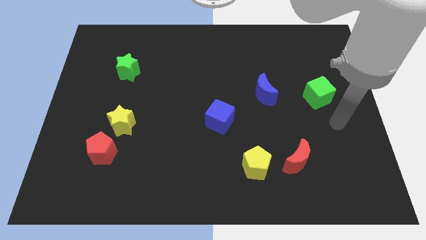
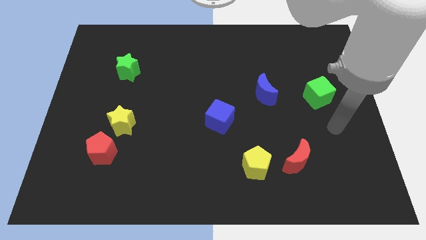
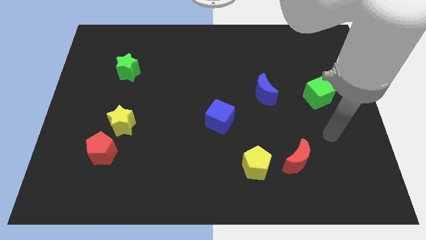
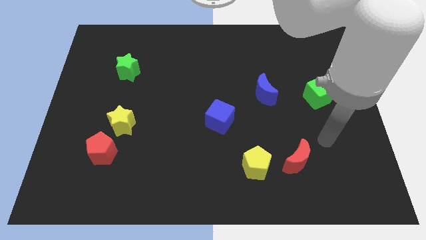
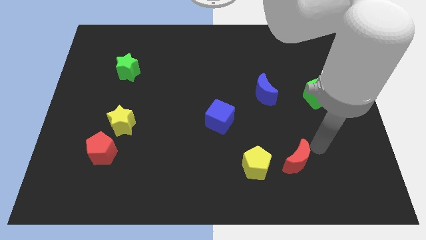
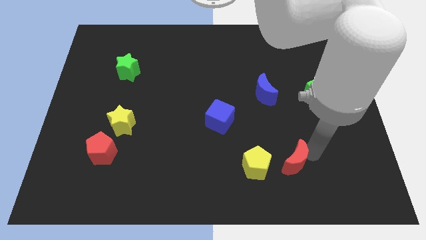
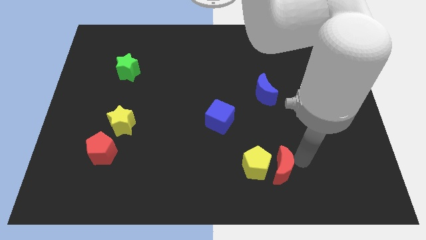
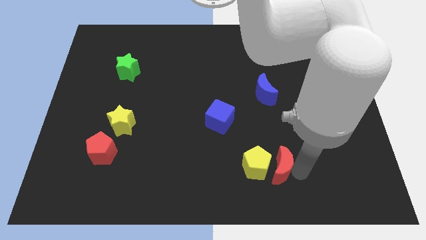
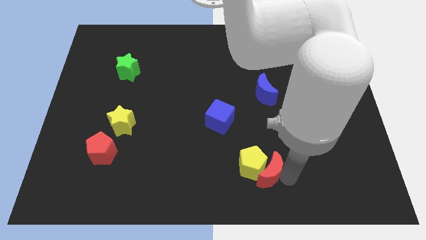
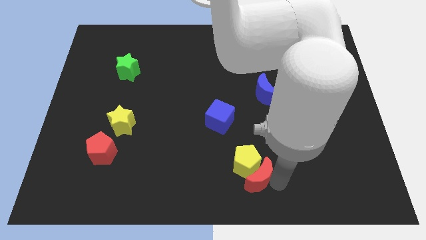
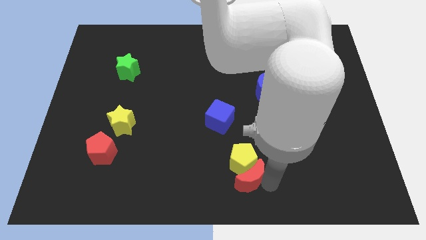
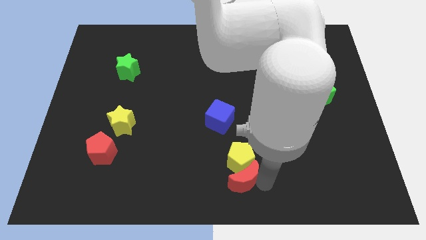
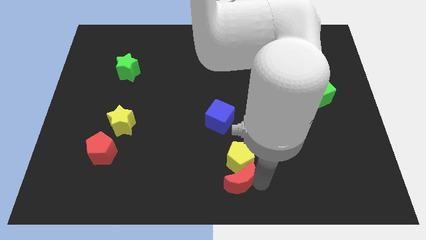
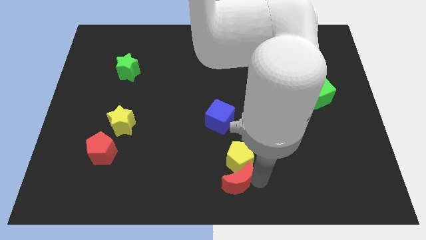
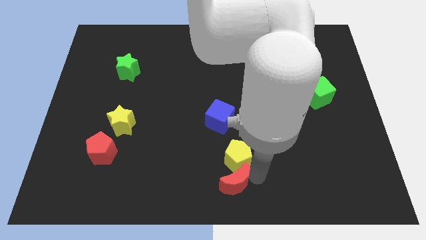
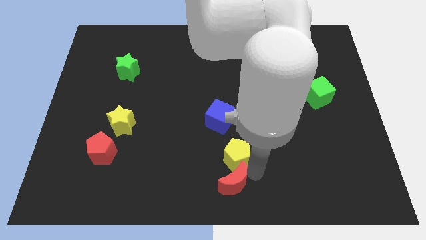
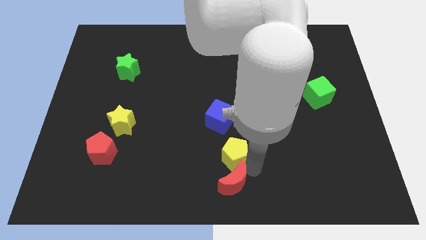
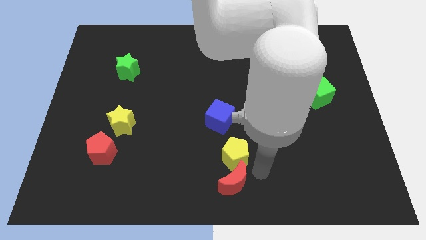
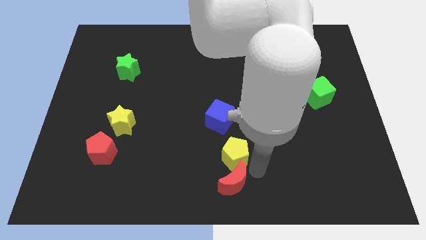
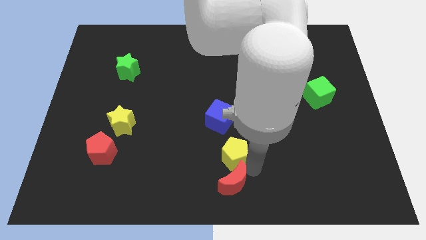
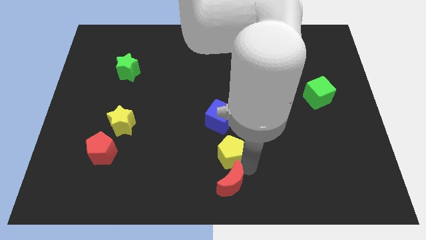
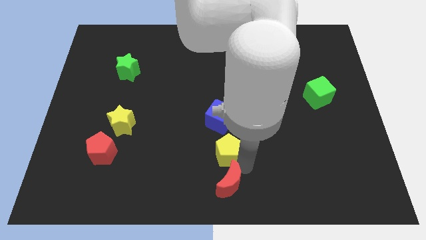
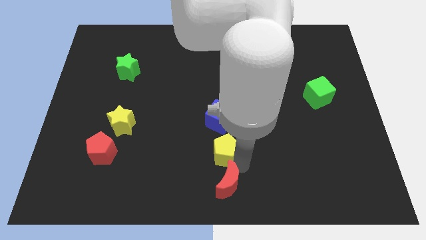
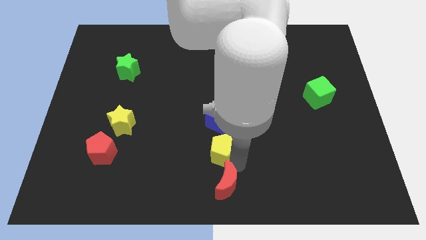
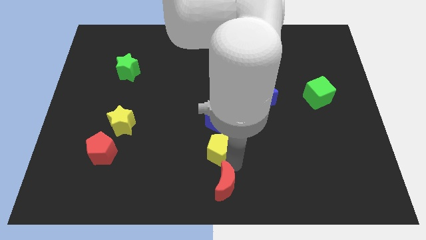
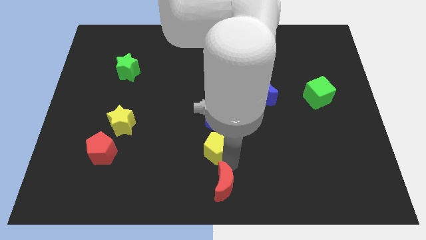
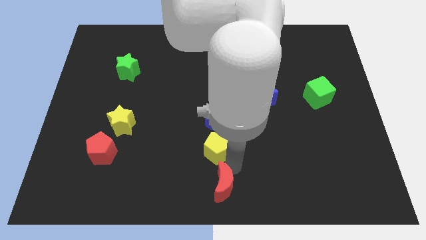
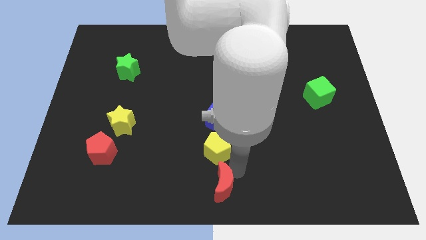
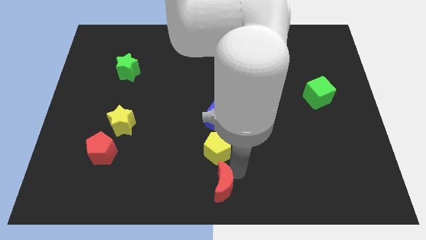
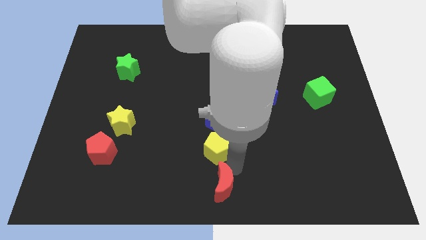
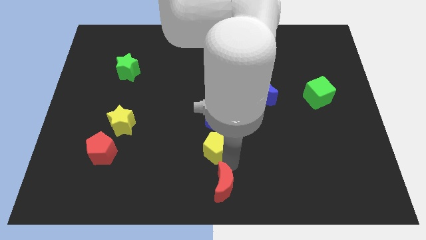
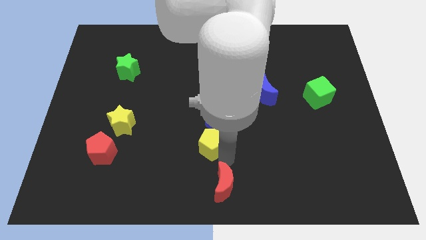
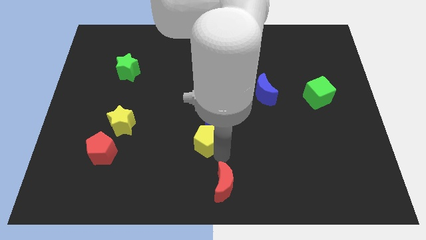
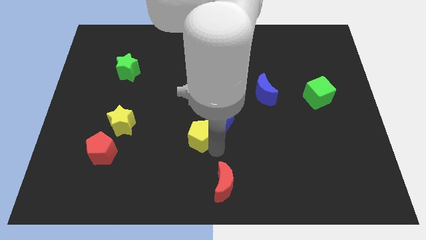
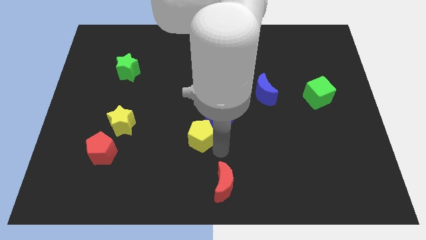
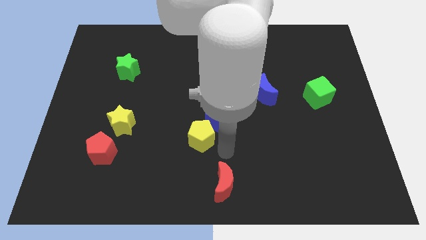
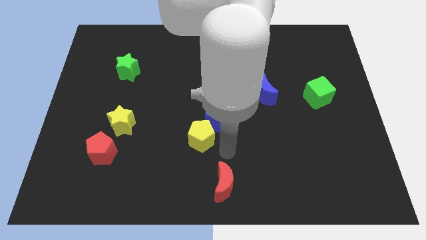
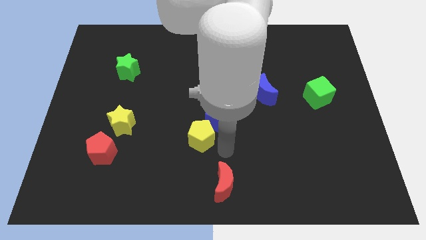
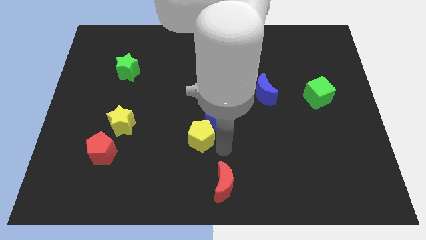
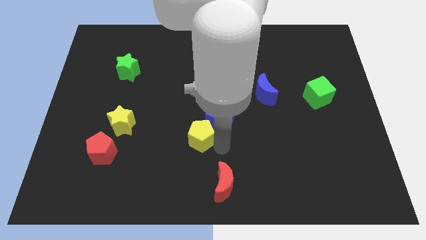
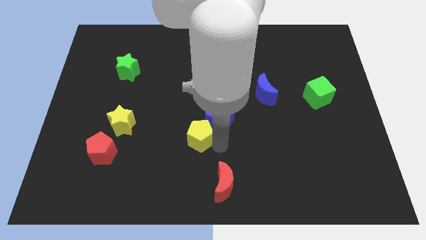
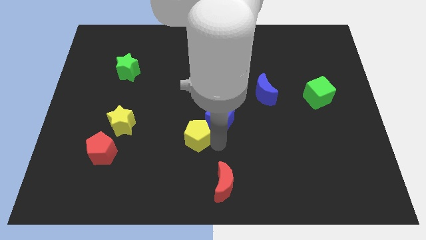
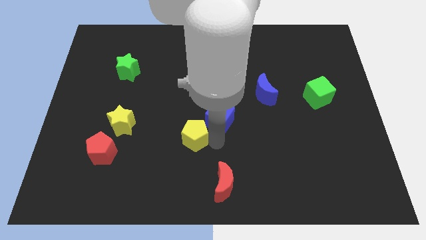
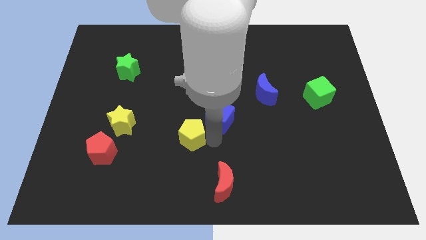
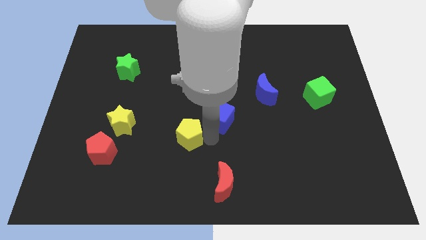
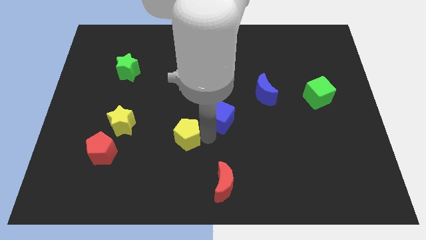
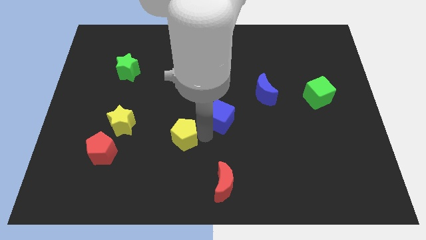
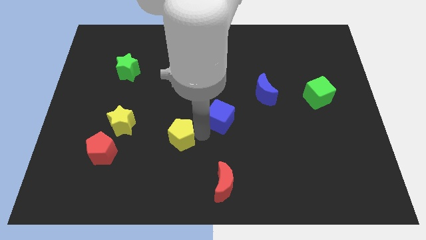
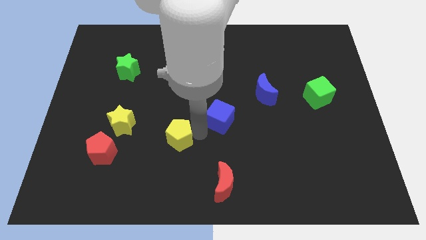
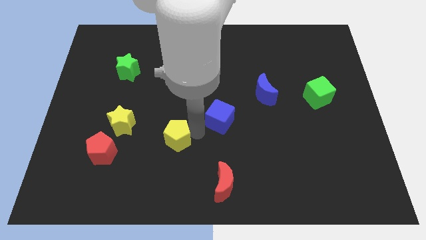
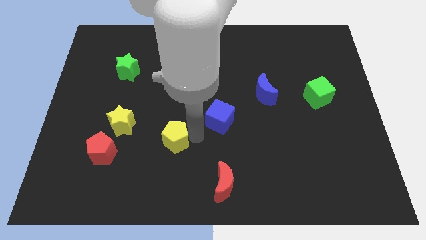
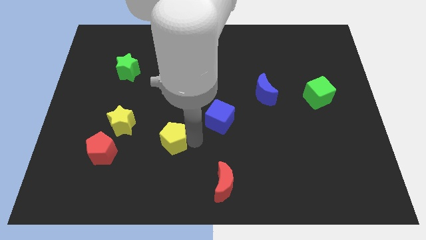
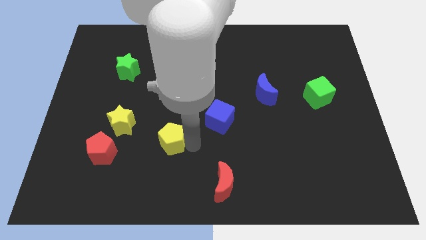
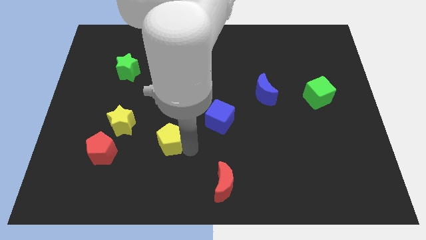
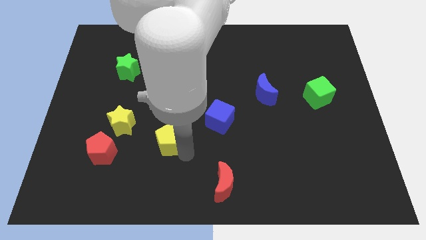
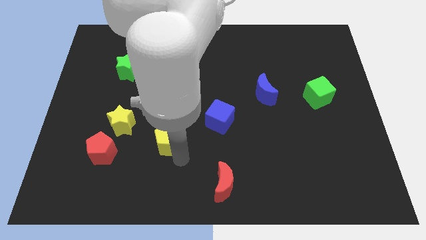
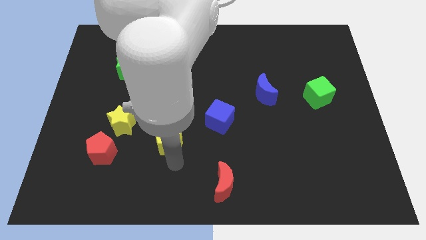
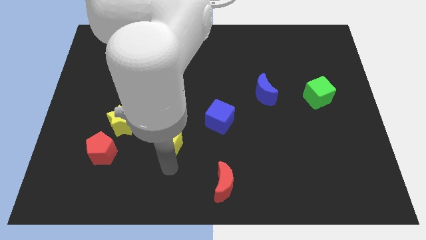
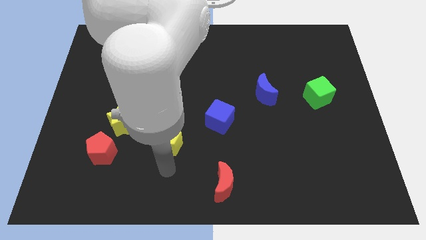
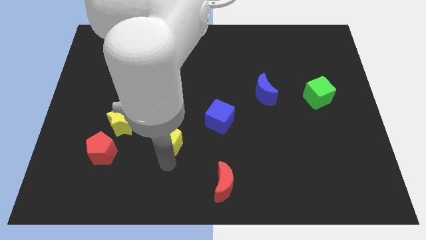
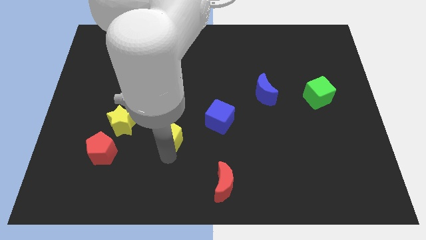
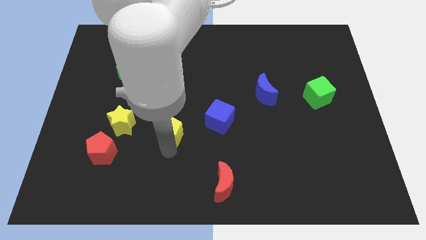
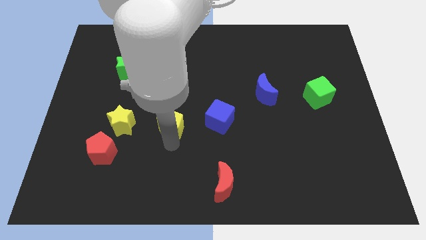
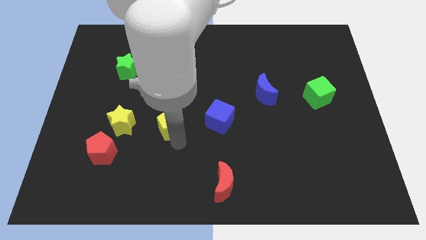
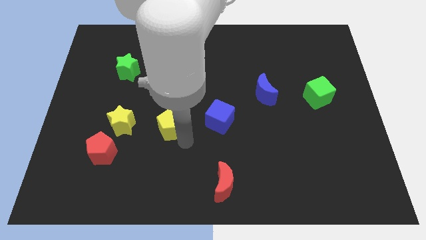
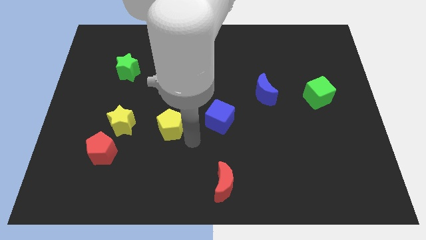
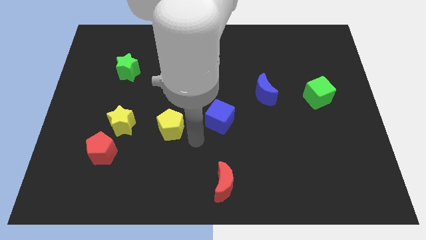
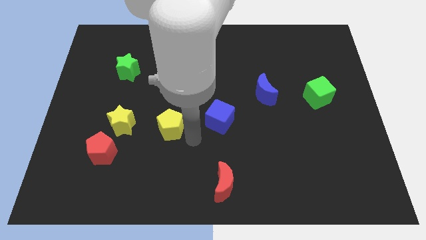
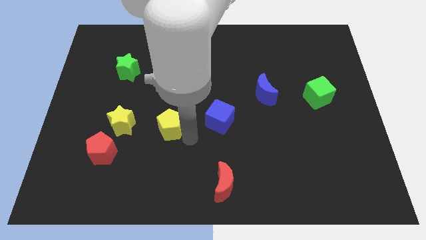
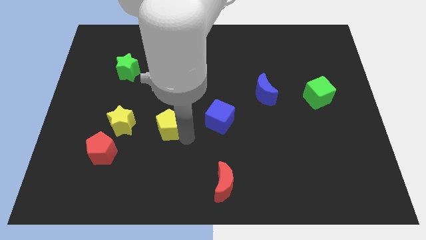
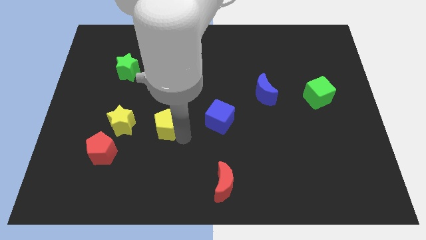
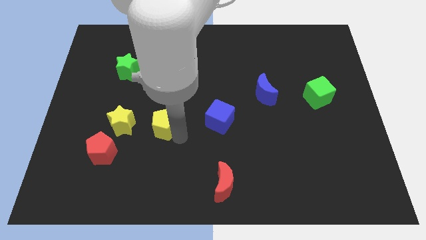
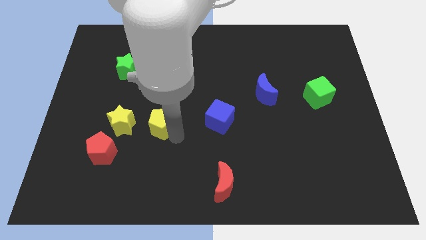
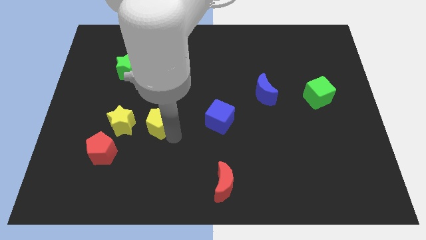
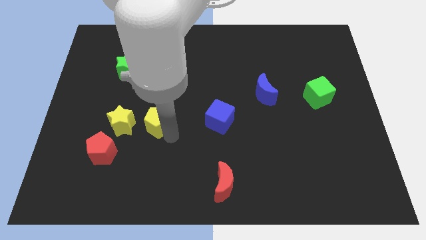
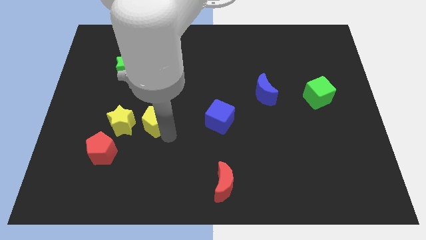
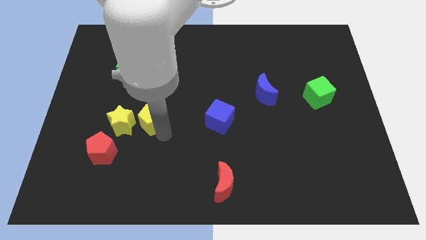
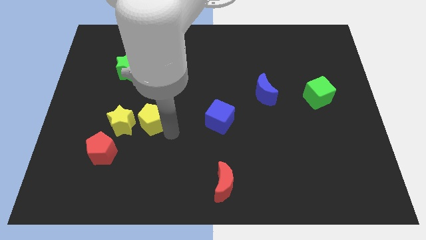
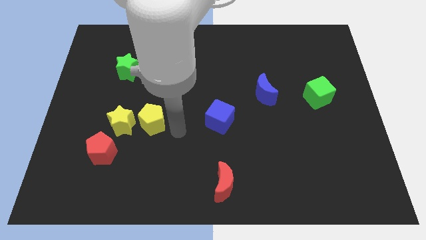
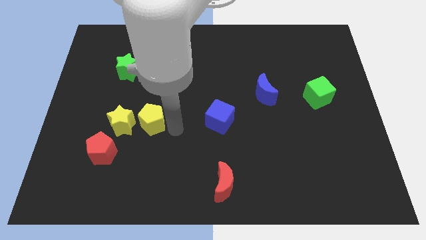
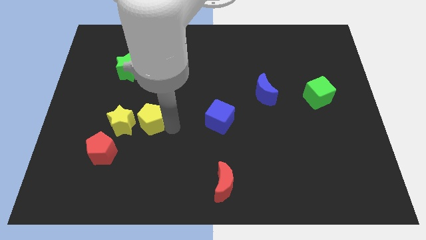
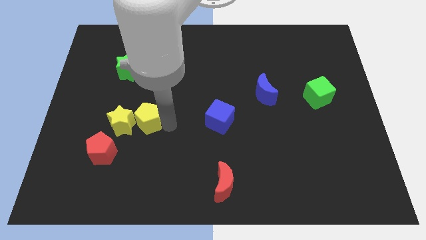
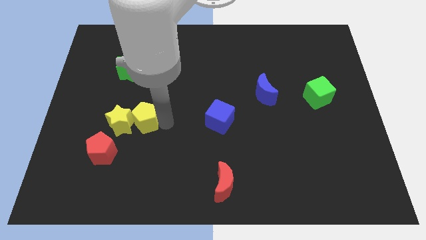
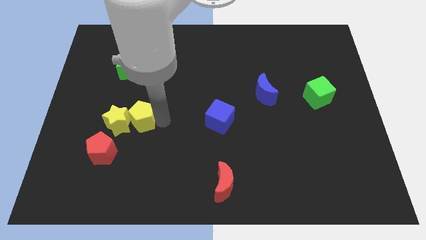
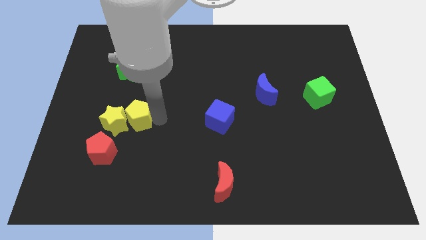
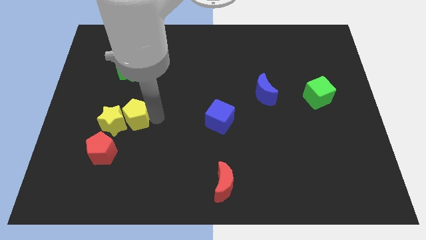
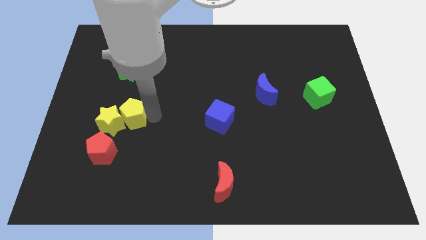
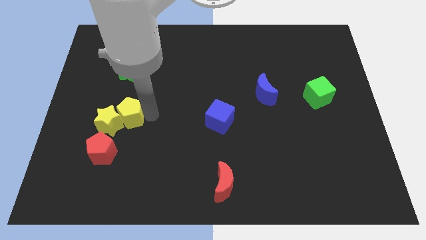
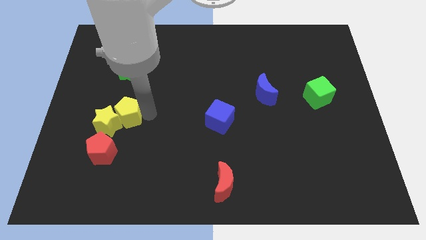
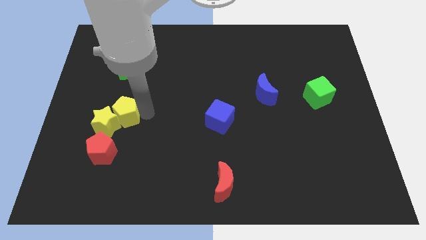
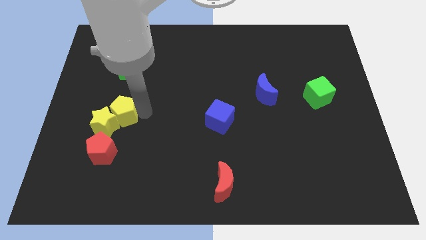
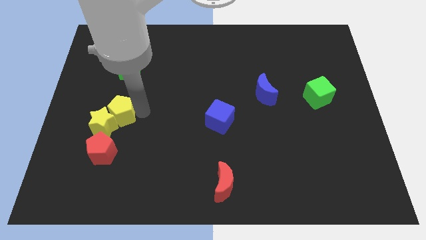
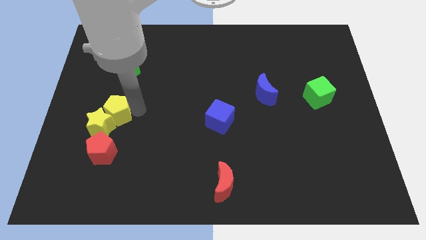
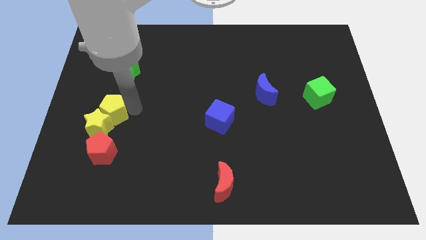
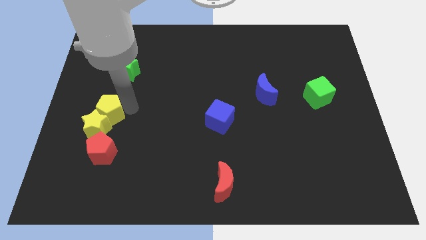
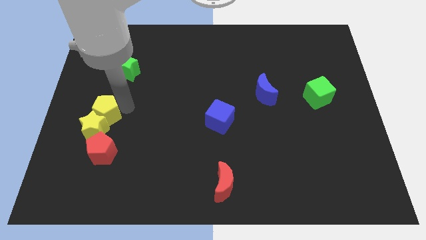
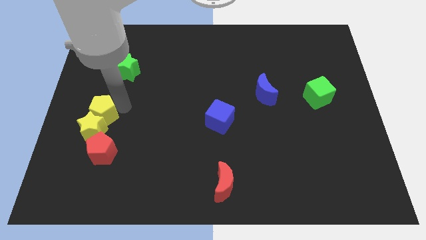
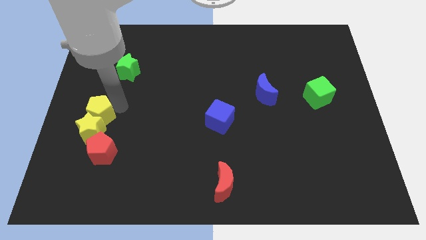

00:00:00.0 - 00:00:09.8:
push the yellow pentagon to the left side
